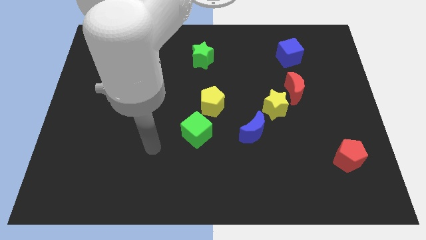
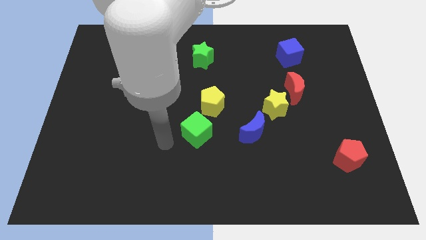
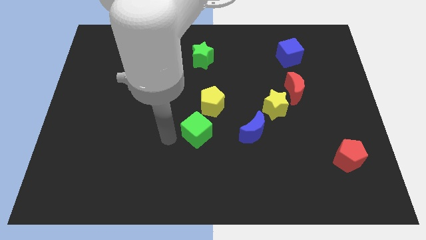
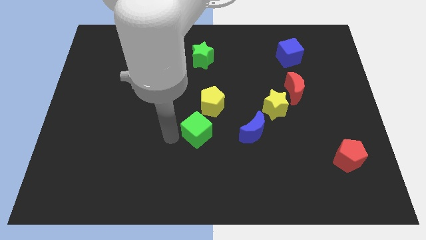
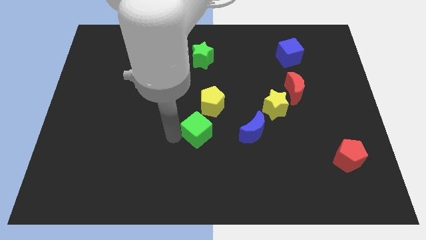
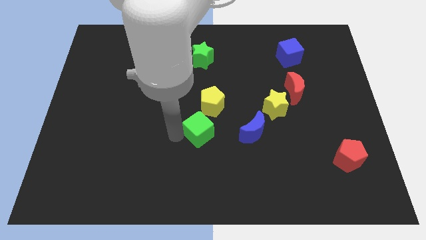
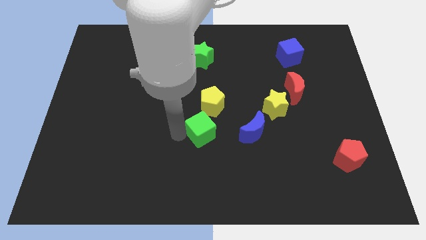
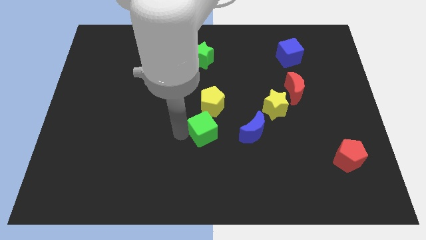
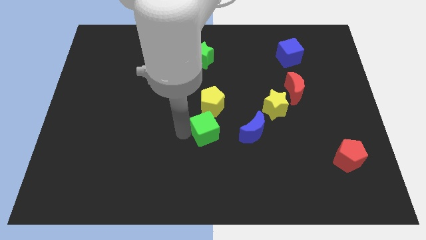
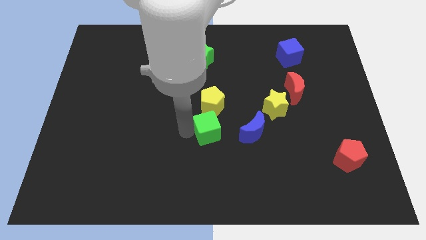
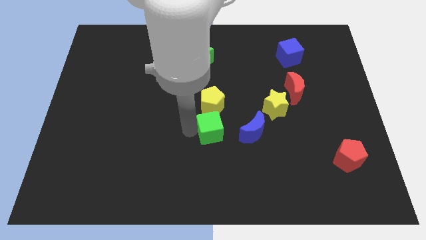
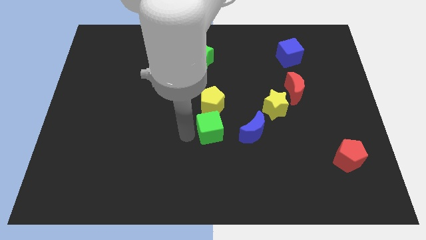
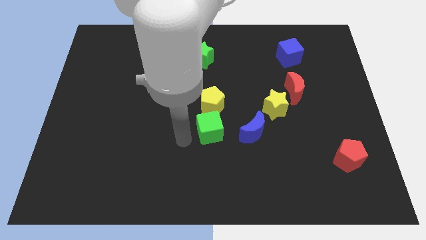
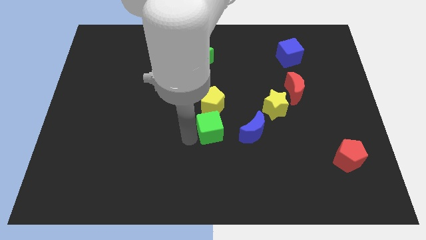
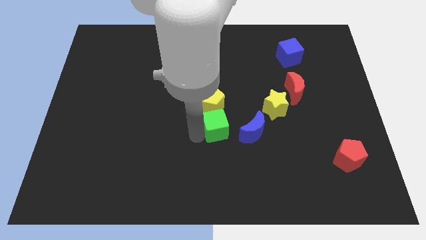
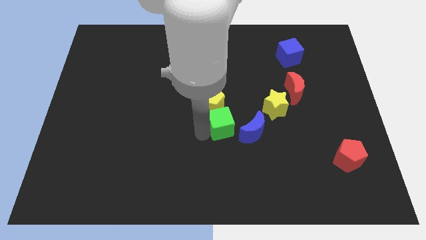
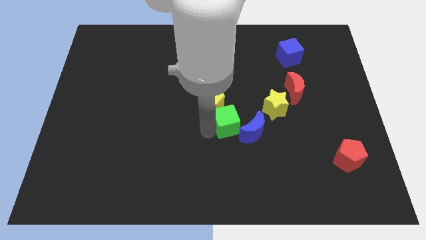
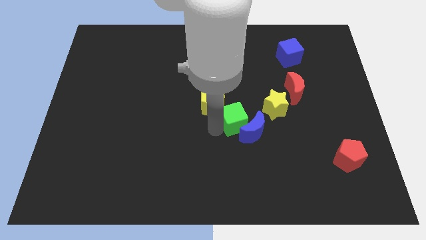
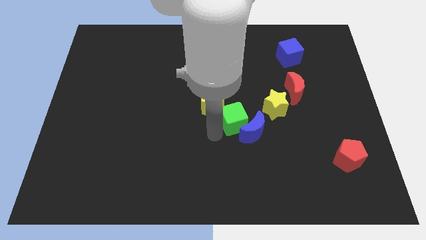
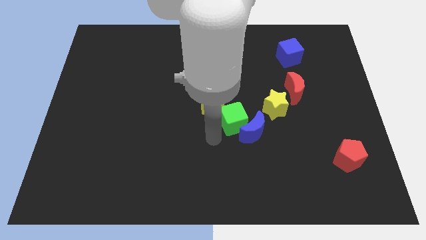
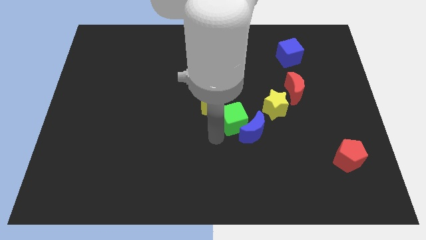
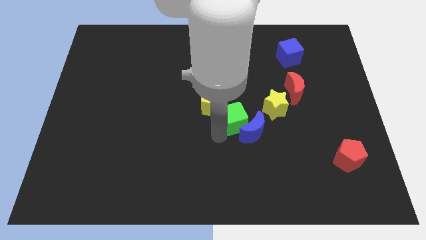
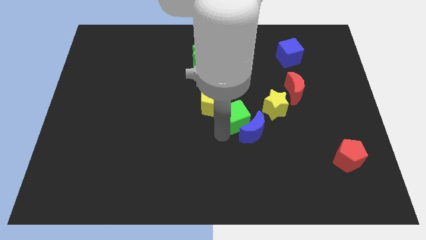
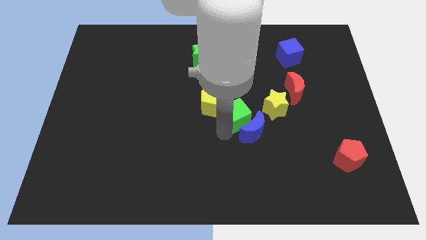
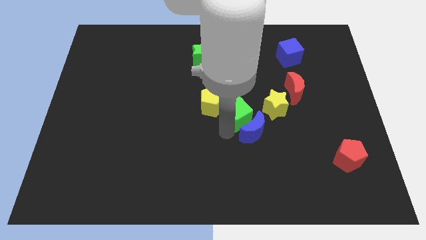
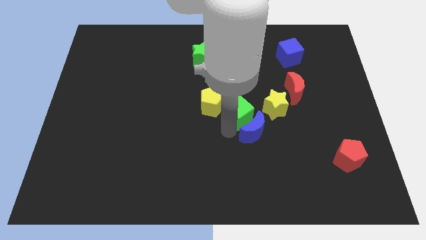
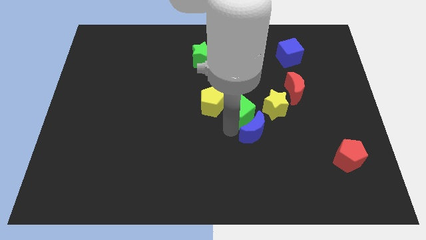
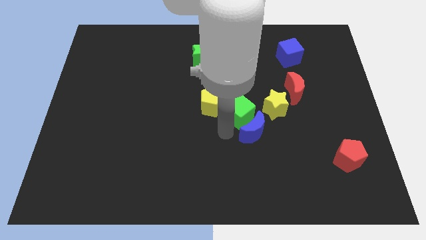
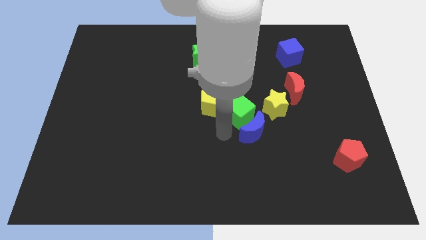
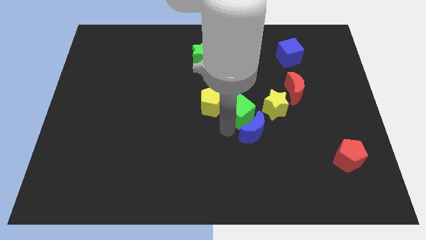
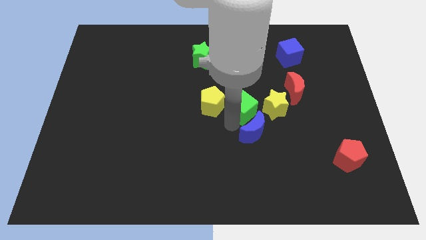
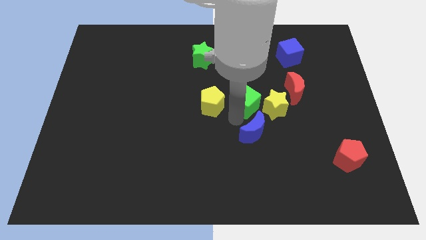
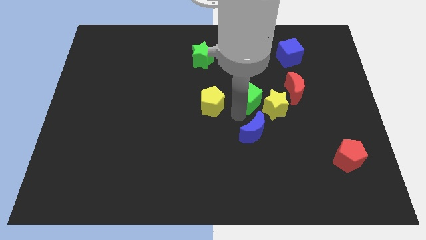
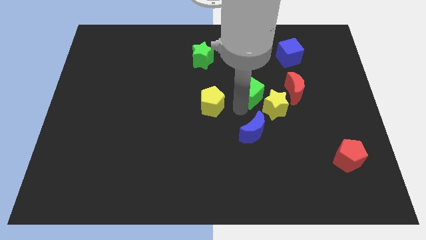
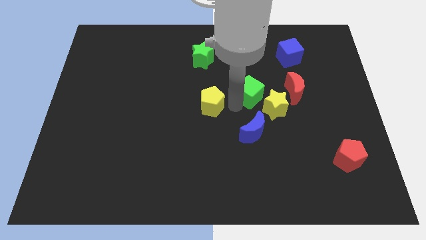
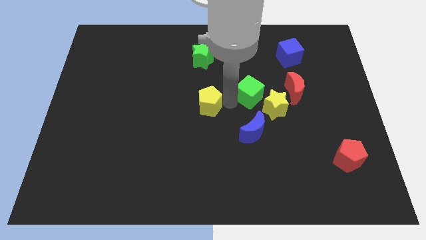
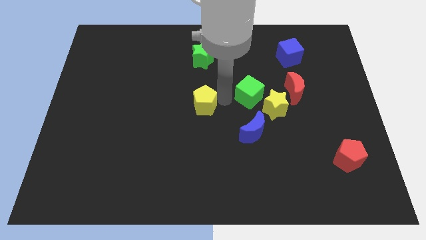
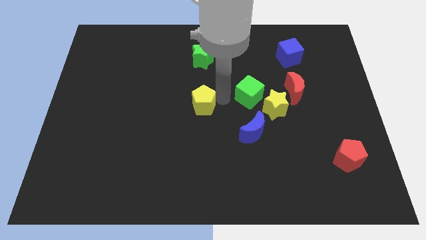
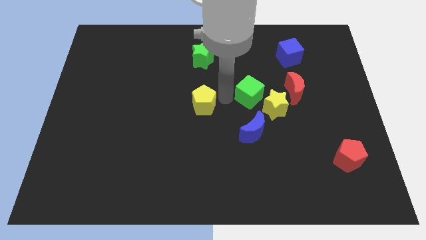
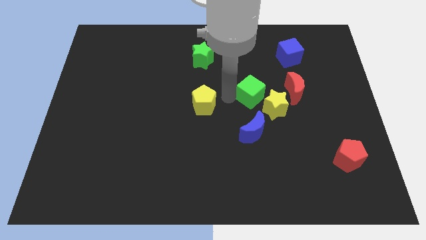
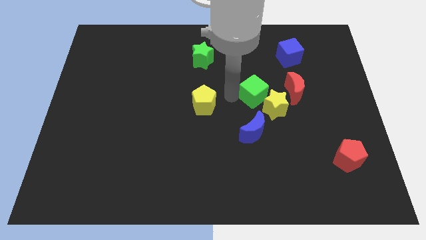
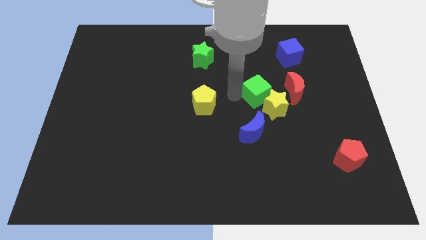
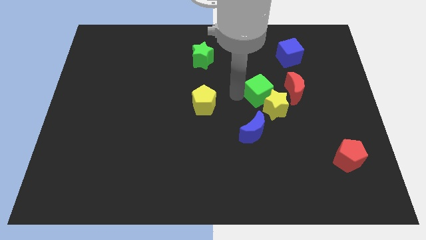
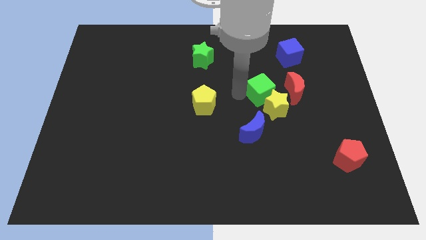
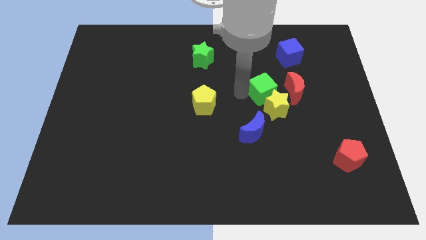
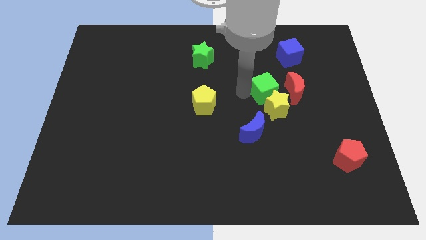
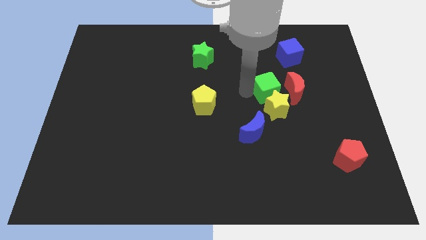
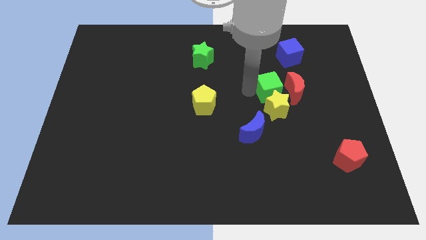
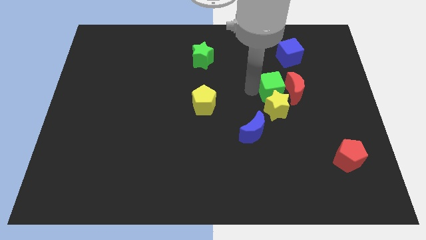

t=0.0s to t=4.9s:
slide the green cube close to the red moon

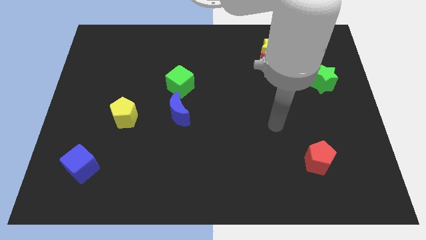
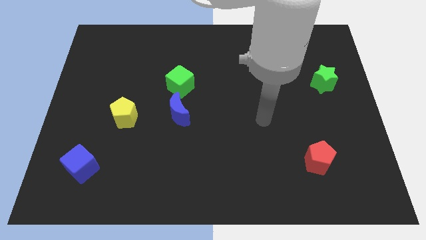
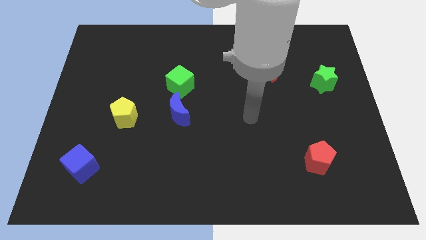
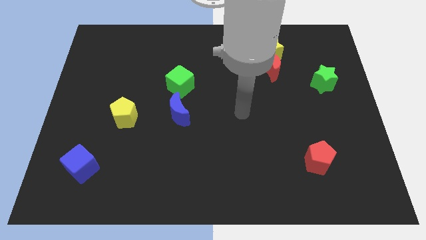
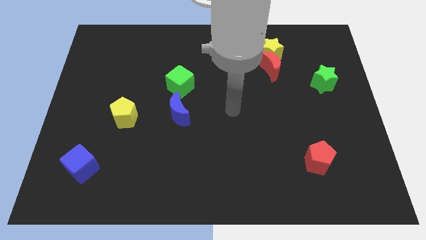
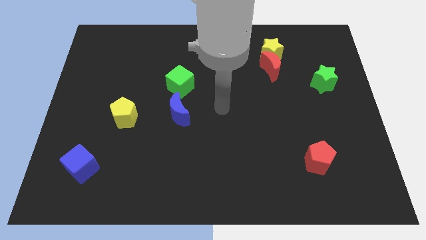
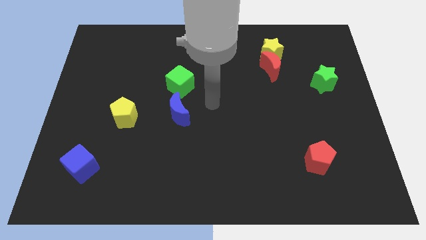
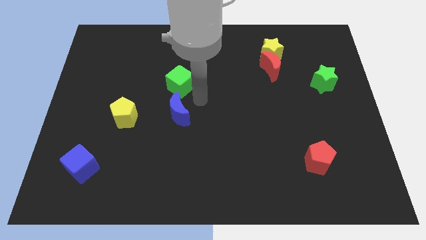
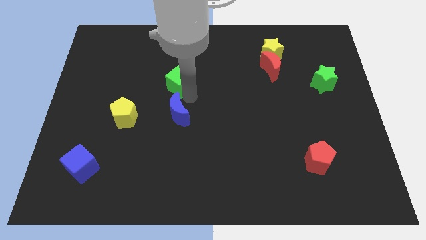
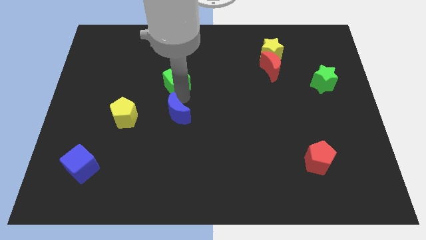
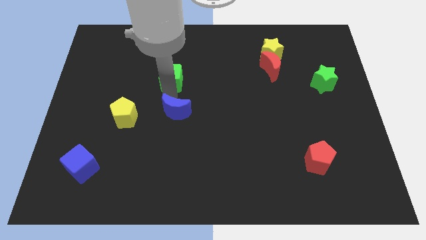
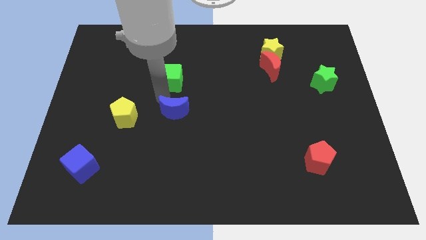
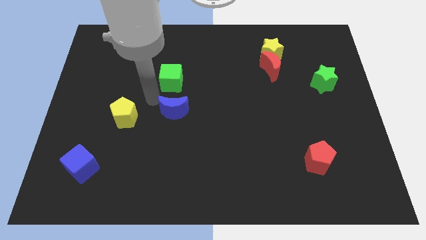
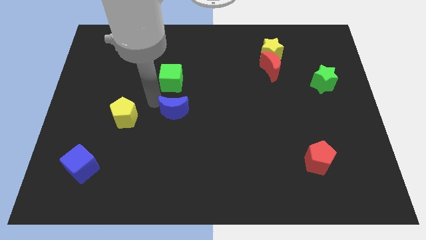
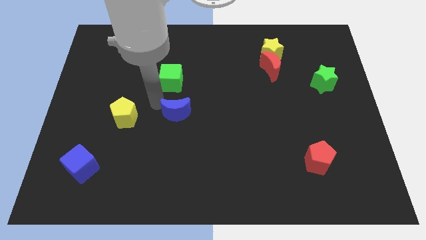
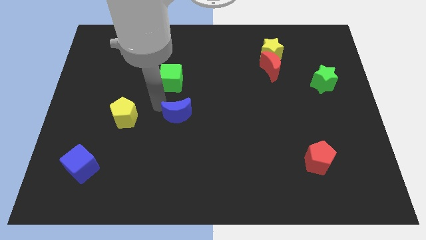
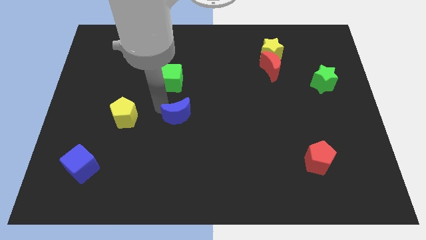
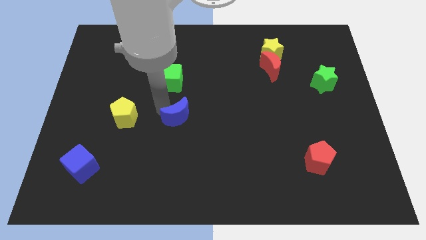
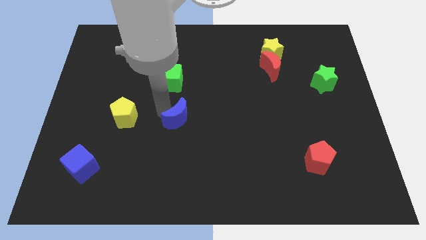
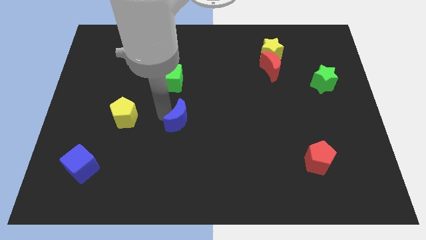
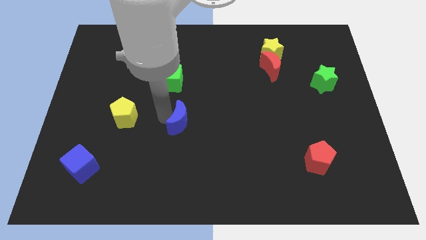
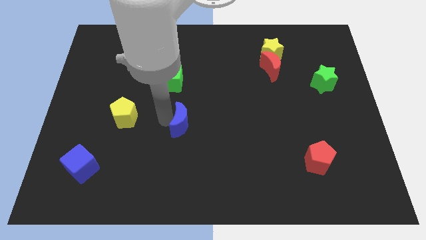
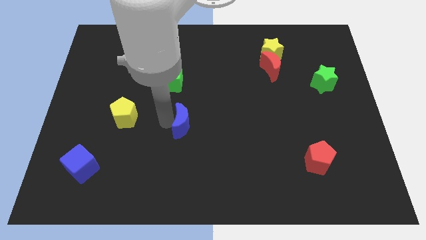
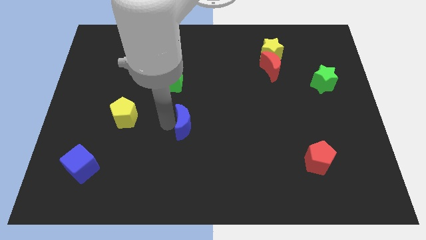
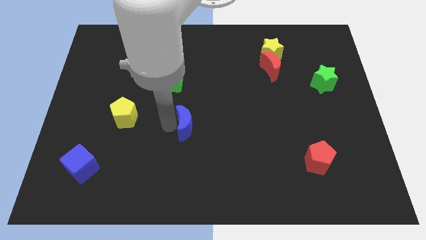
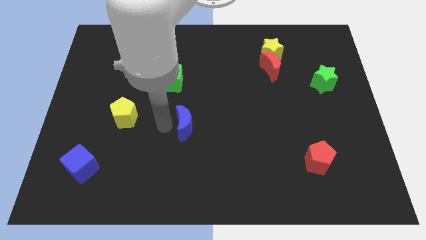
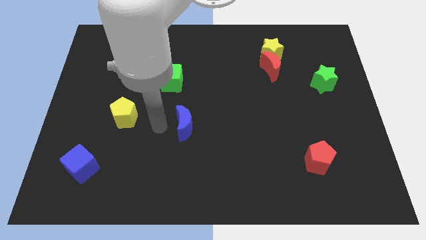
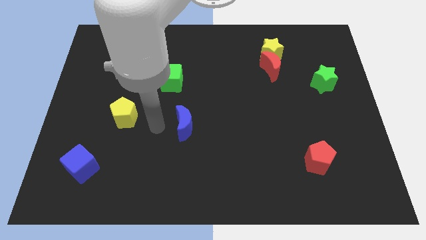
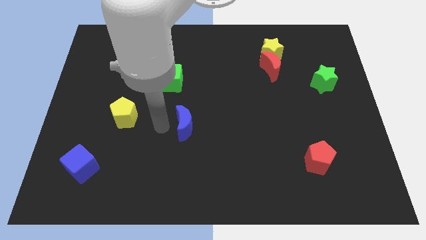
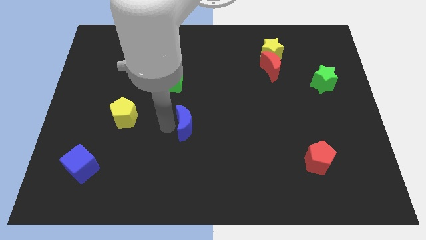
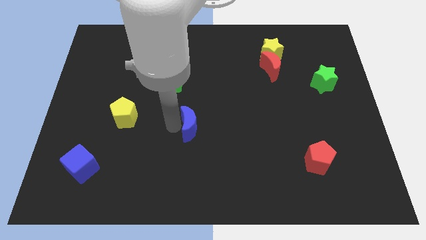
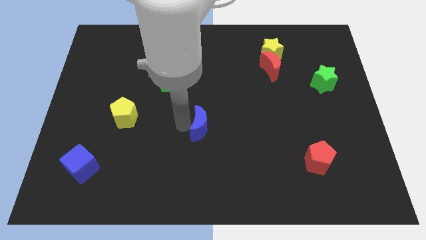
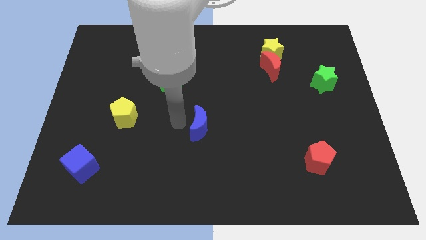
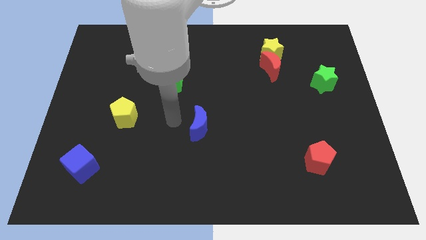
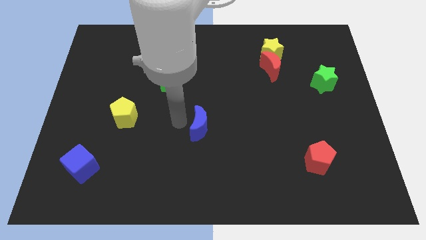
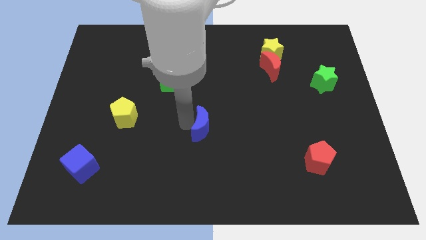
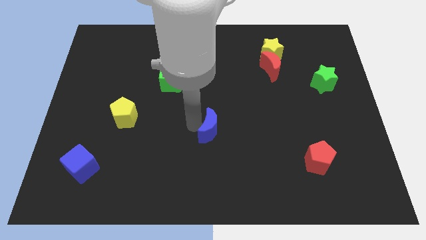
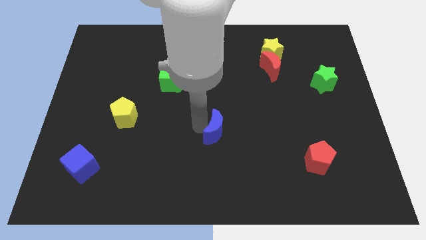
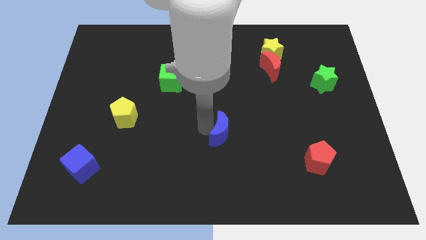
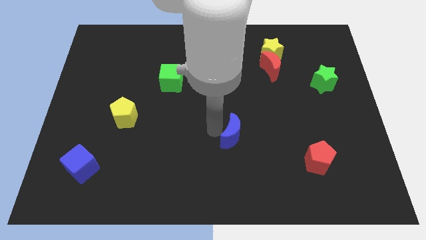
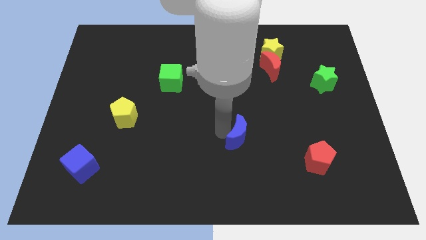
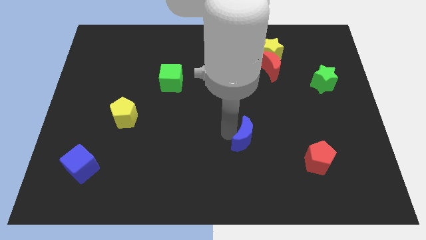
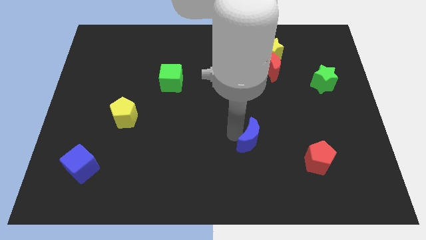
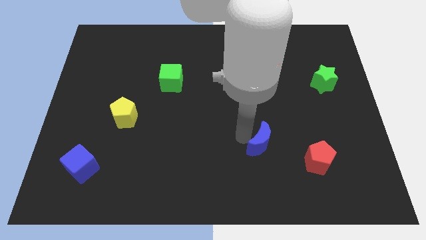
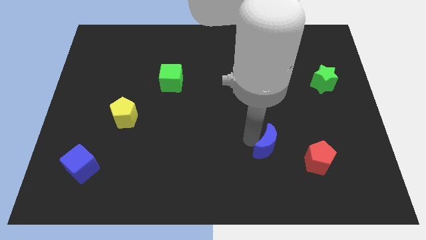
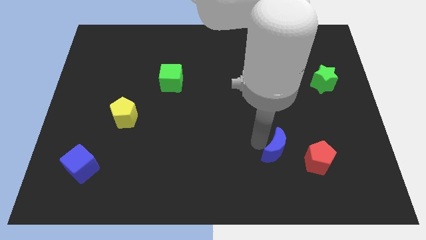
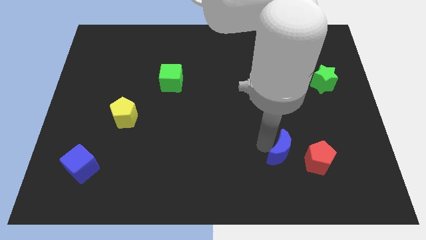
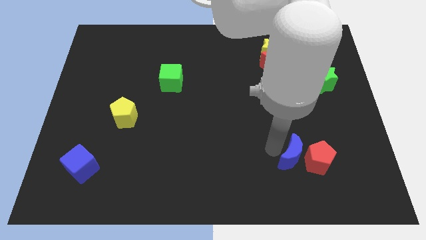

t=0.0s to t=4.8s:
push the blue moon to the red pentagon
